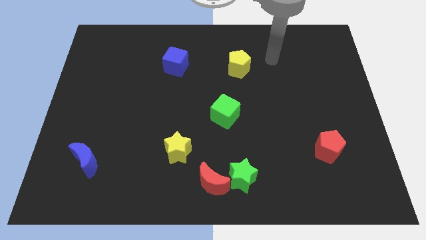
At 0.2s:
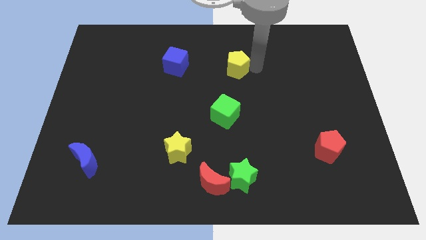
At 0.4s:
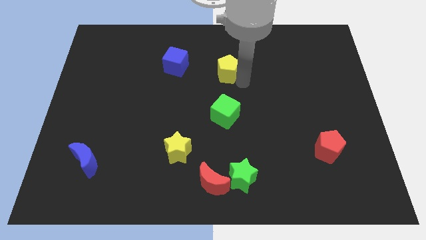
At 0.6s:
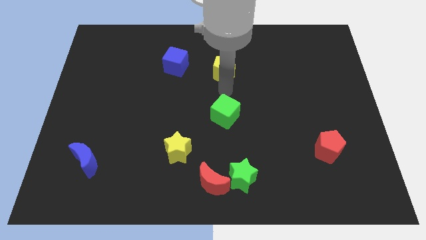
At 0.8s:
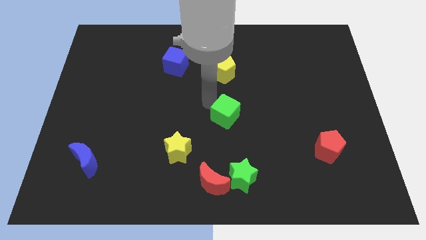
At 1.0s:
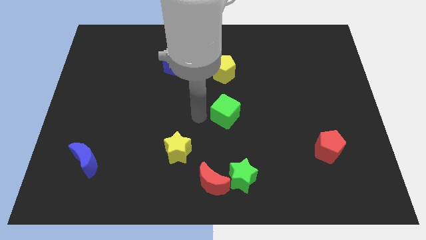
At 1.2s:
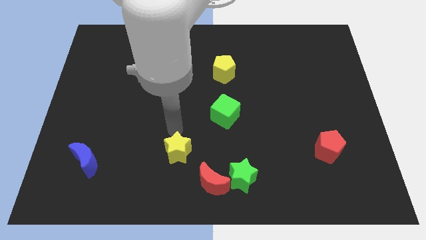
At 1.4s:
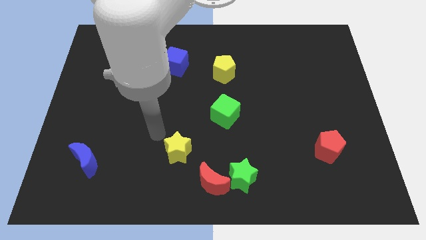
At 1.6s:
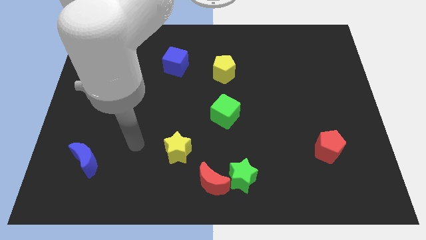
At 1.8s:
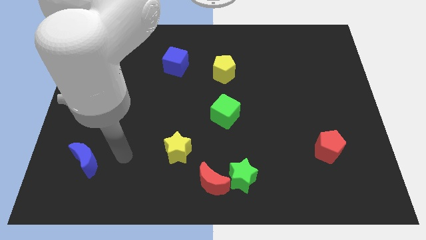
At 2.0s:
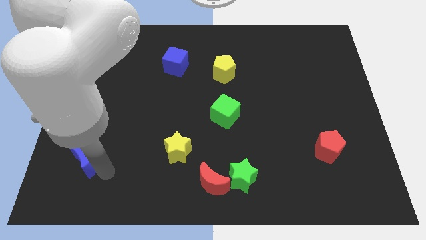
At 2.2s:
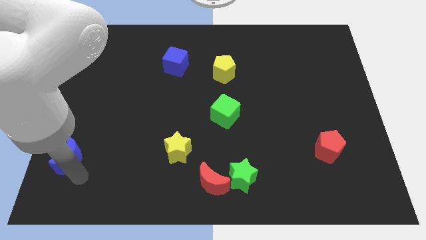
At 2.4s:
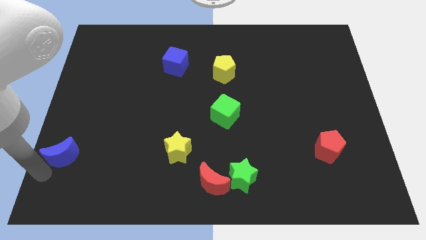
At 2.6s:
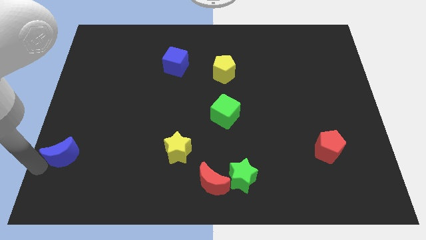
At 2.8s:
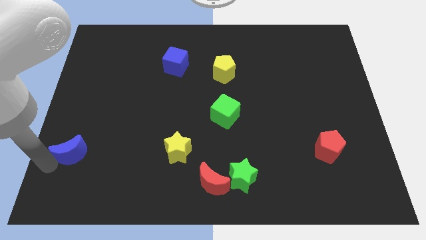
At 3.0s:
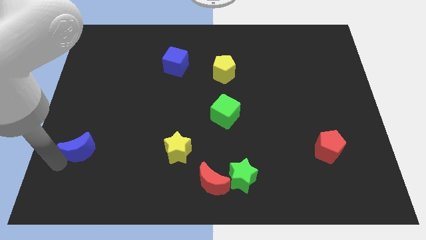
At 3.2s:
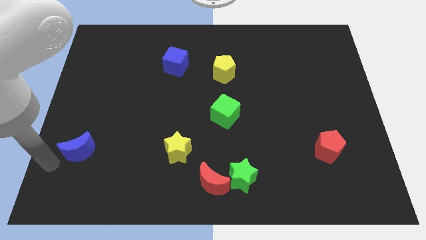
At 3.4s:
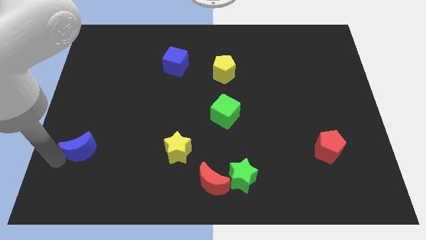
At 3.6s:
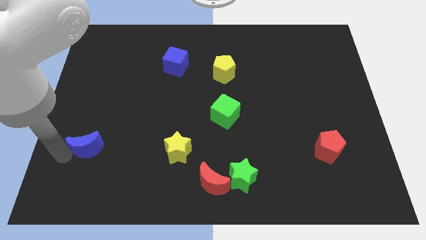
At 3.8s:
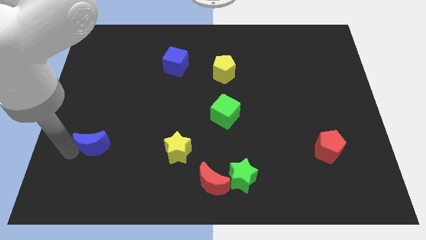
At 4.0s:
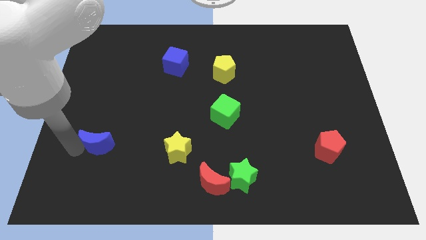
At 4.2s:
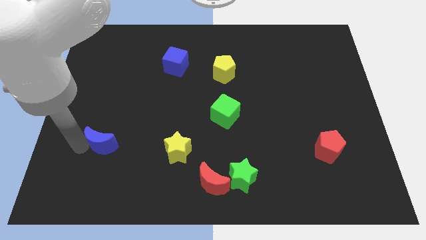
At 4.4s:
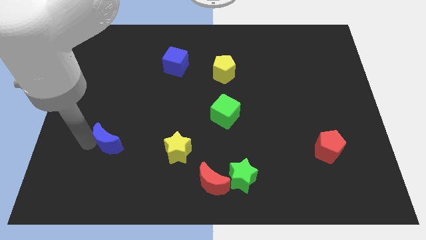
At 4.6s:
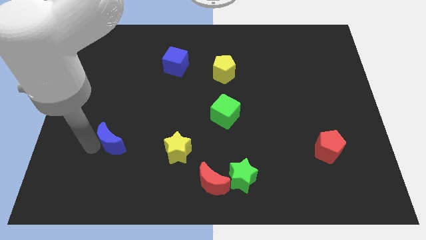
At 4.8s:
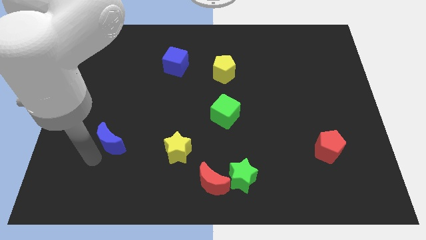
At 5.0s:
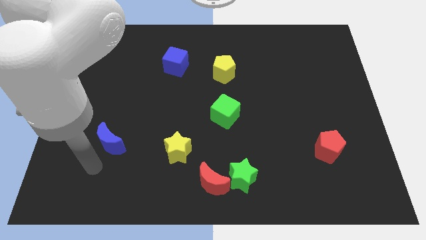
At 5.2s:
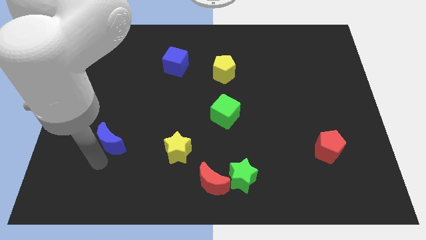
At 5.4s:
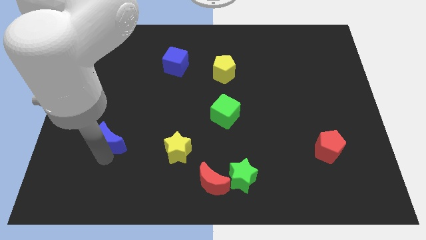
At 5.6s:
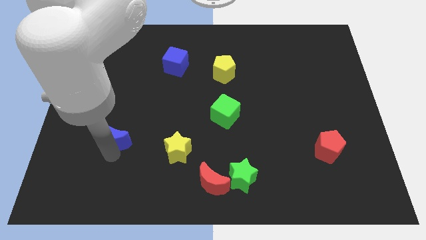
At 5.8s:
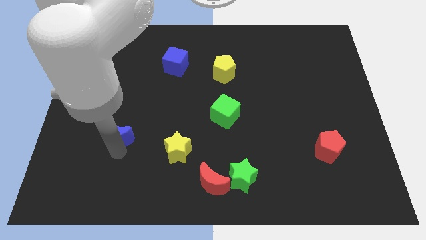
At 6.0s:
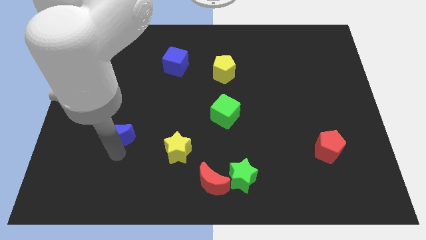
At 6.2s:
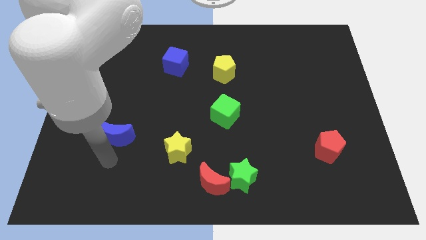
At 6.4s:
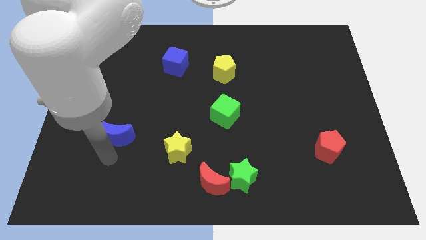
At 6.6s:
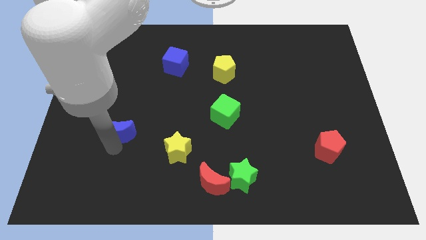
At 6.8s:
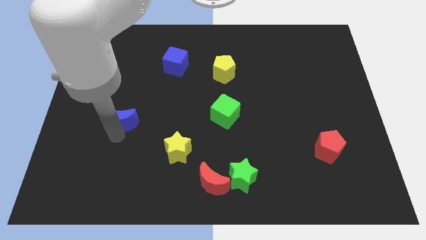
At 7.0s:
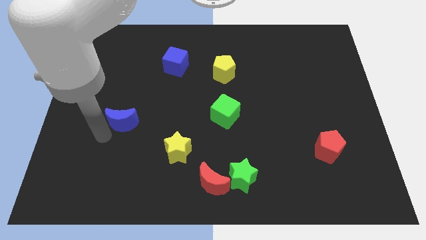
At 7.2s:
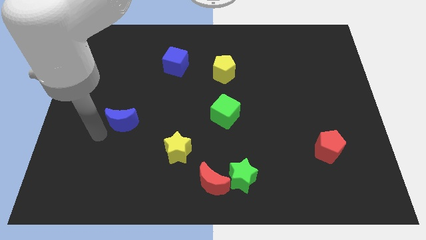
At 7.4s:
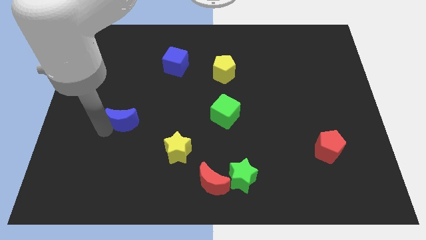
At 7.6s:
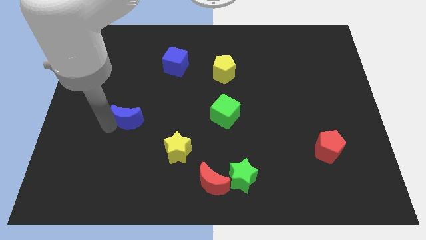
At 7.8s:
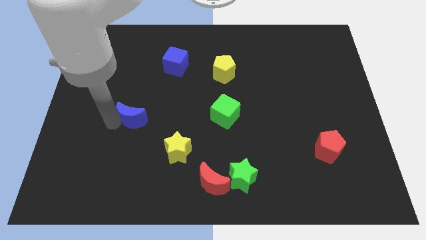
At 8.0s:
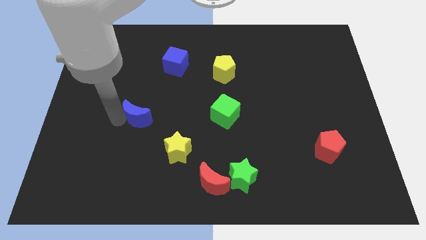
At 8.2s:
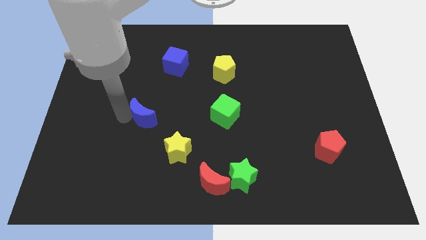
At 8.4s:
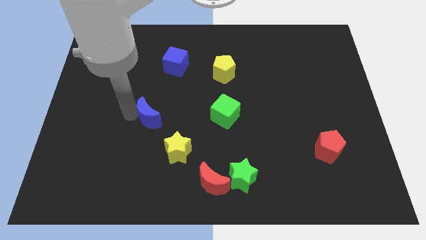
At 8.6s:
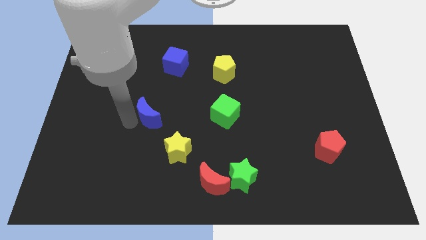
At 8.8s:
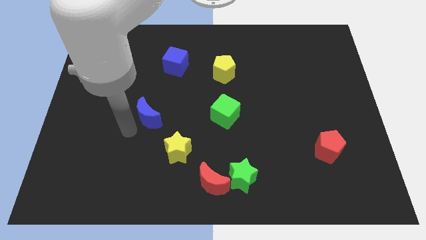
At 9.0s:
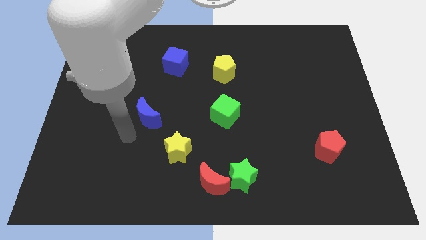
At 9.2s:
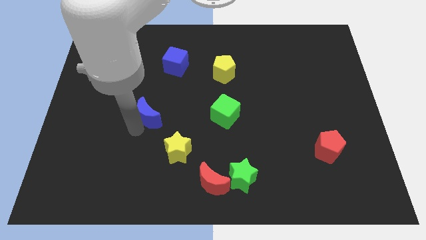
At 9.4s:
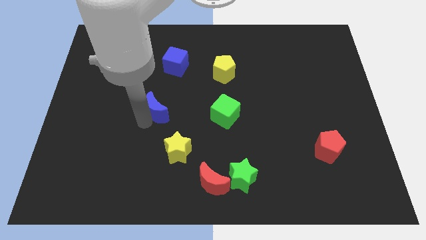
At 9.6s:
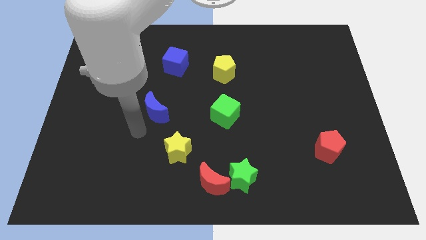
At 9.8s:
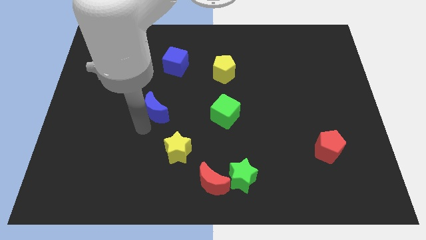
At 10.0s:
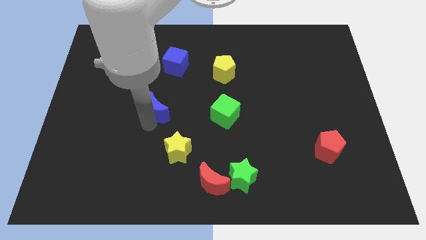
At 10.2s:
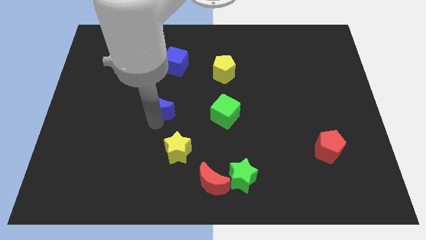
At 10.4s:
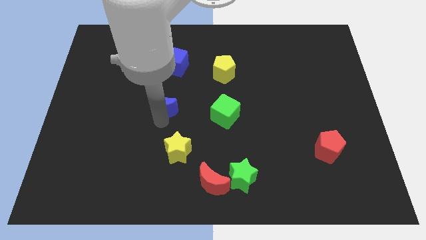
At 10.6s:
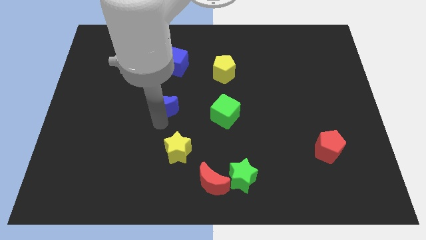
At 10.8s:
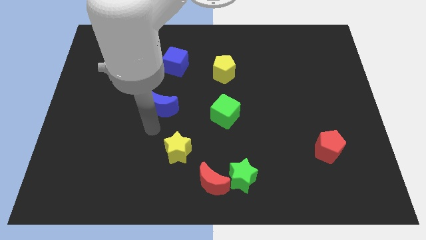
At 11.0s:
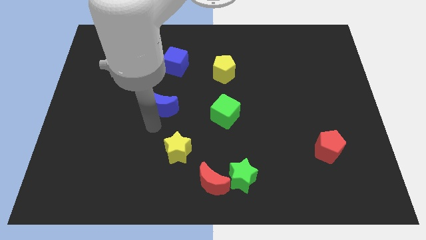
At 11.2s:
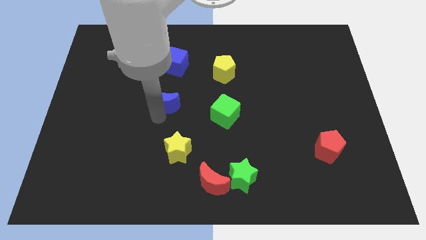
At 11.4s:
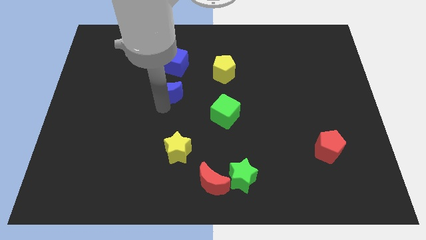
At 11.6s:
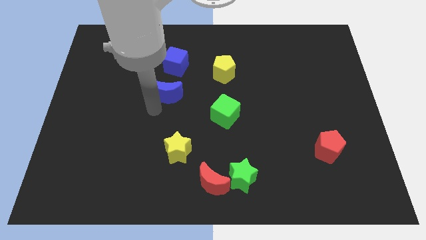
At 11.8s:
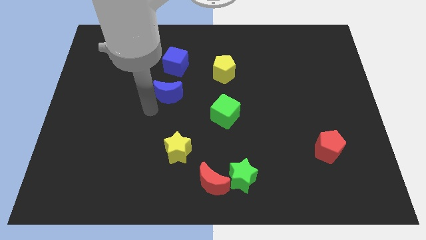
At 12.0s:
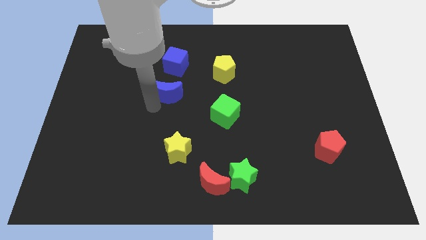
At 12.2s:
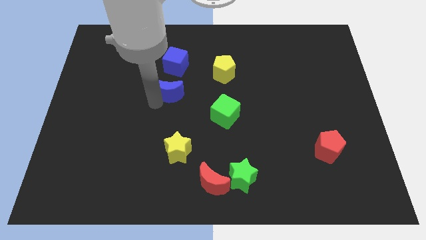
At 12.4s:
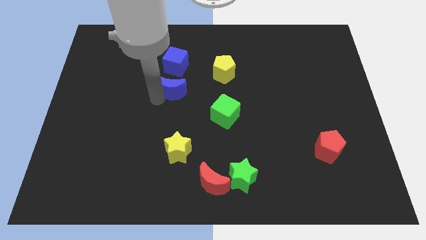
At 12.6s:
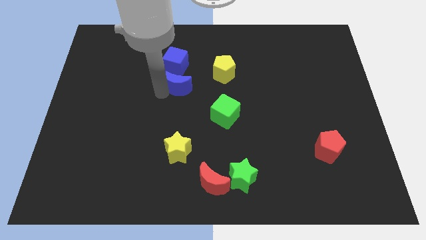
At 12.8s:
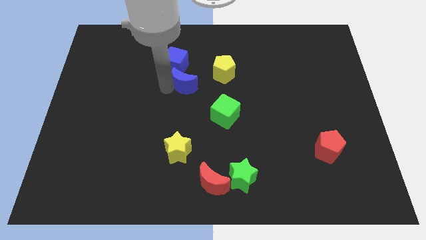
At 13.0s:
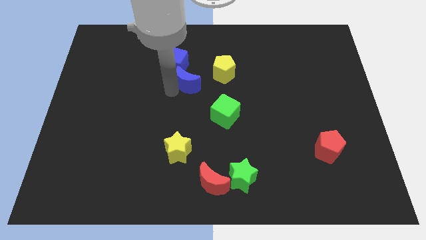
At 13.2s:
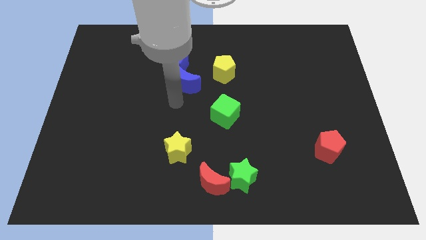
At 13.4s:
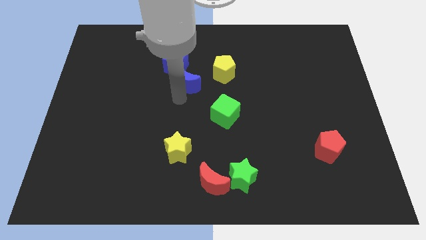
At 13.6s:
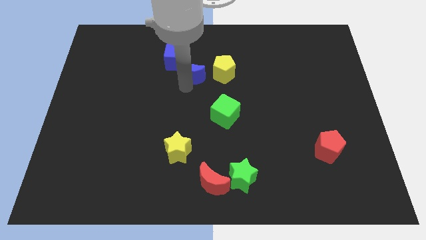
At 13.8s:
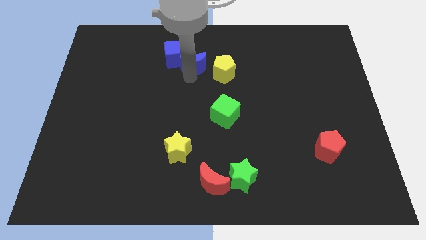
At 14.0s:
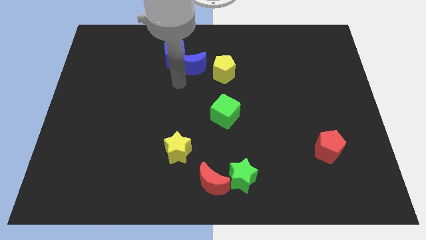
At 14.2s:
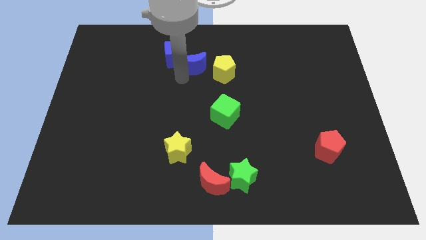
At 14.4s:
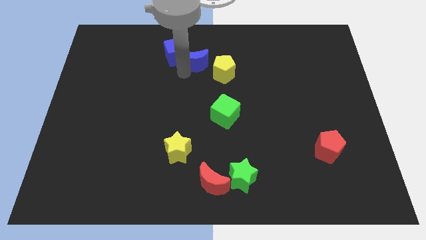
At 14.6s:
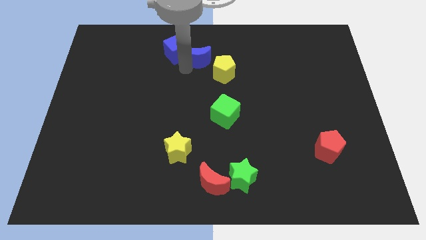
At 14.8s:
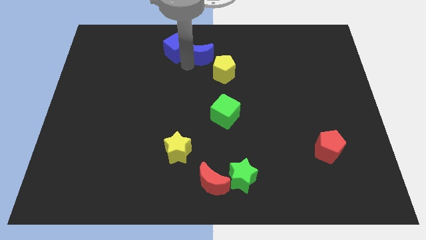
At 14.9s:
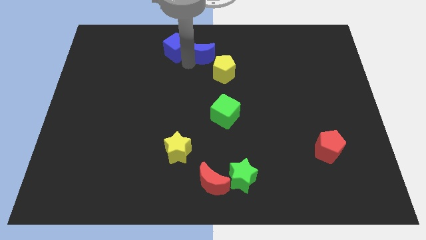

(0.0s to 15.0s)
slide the blue moon to the top side
